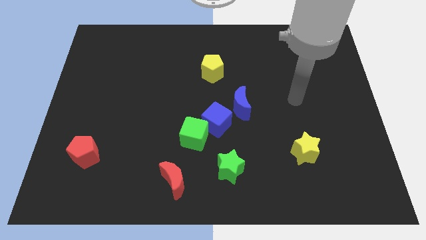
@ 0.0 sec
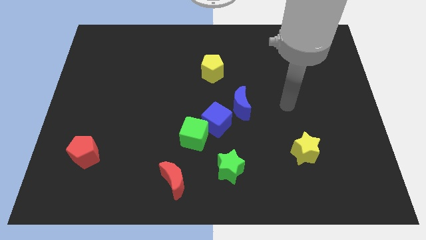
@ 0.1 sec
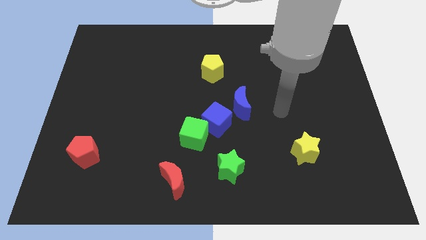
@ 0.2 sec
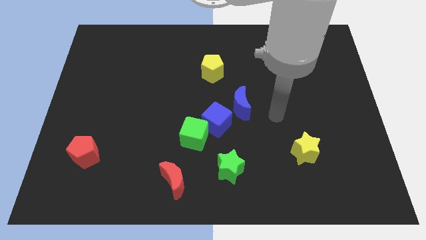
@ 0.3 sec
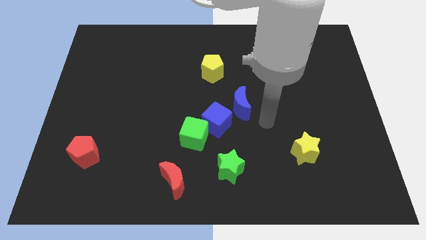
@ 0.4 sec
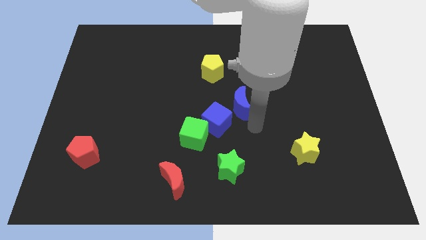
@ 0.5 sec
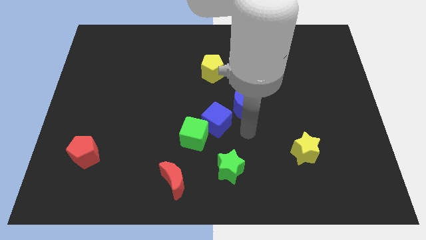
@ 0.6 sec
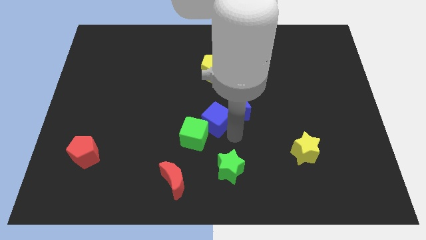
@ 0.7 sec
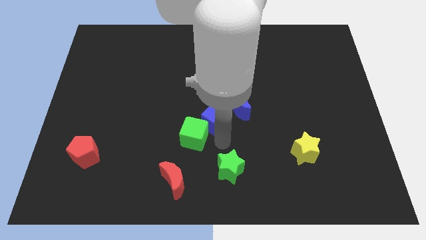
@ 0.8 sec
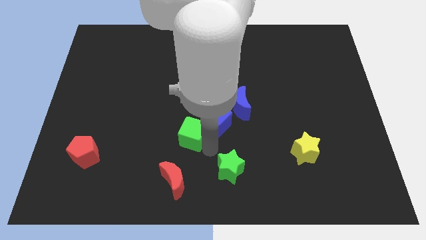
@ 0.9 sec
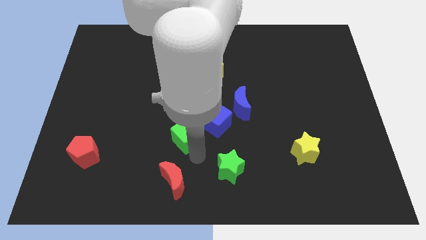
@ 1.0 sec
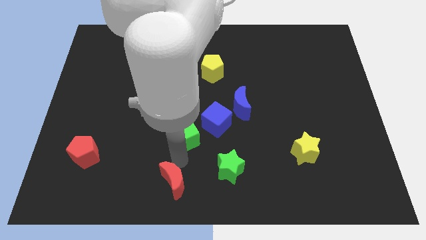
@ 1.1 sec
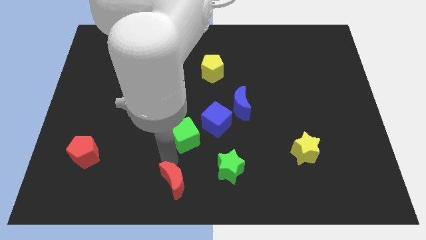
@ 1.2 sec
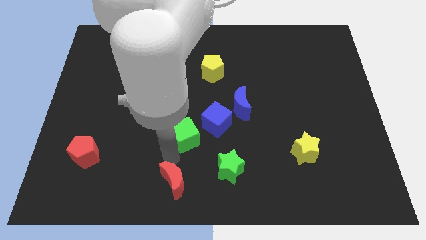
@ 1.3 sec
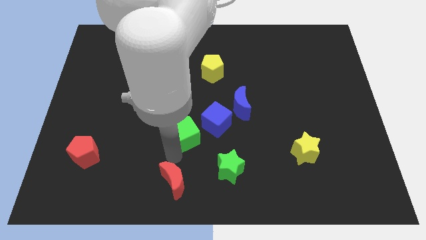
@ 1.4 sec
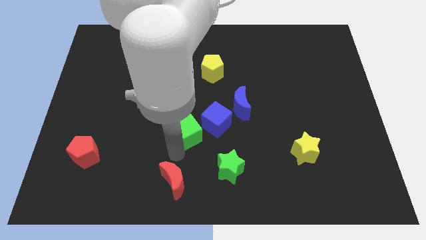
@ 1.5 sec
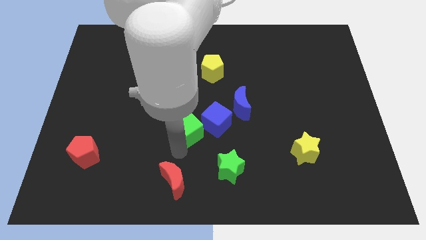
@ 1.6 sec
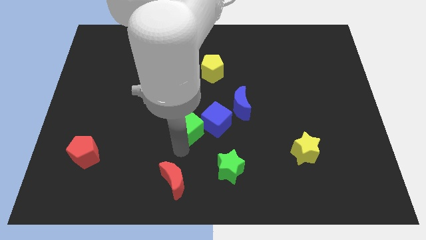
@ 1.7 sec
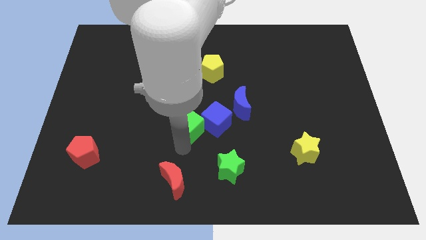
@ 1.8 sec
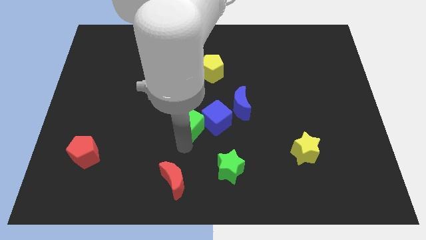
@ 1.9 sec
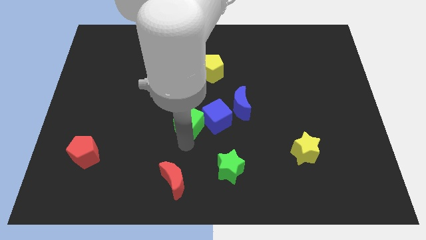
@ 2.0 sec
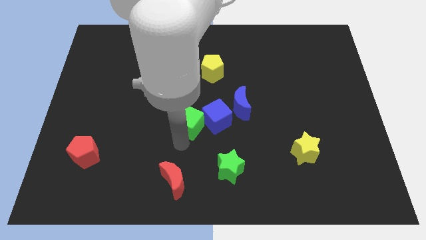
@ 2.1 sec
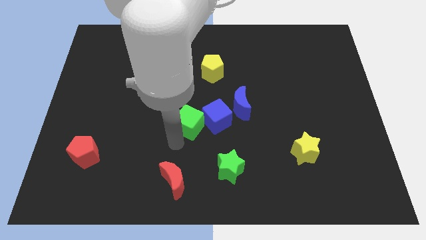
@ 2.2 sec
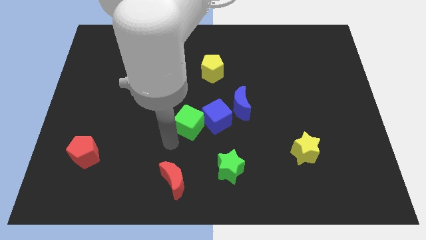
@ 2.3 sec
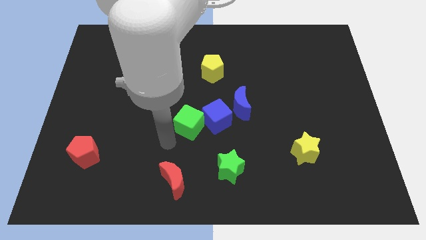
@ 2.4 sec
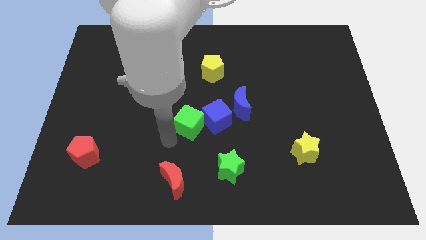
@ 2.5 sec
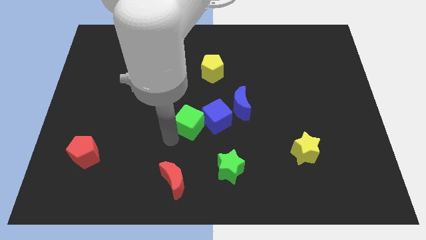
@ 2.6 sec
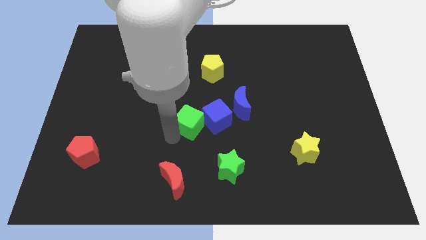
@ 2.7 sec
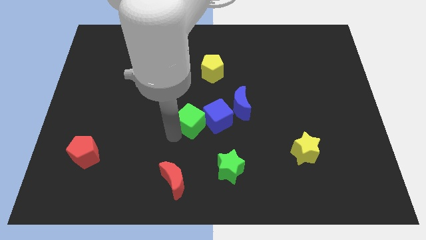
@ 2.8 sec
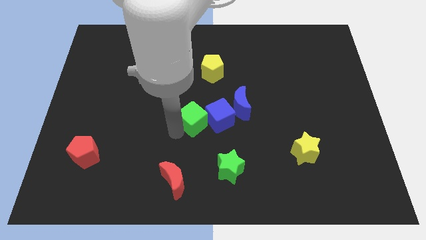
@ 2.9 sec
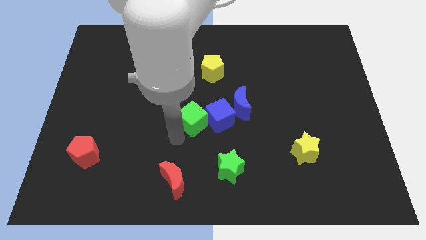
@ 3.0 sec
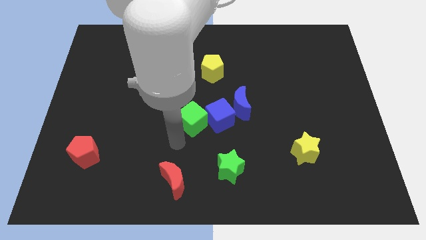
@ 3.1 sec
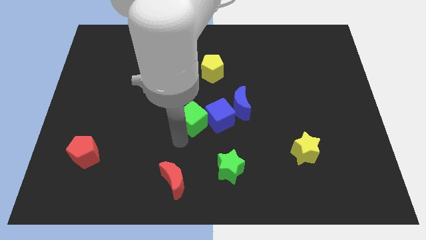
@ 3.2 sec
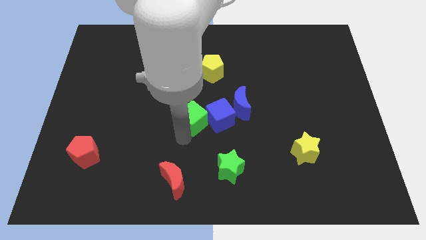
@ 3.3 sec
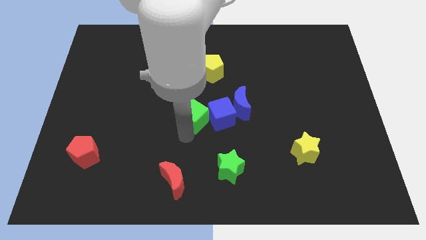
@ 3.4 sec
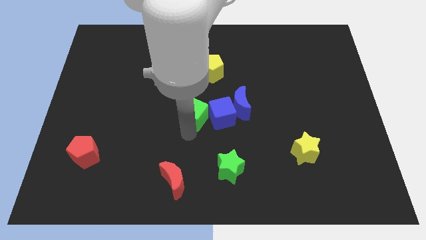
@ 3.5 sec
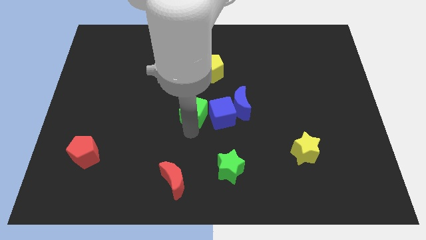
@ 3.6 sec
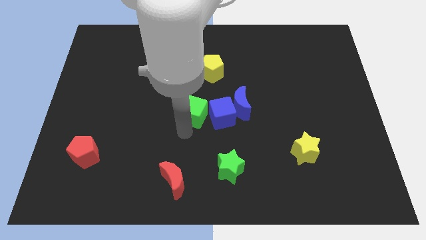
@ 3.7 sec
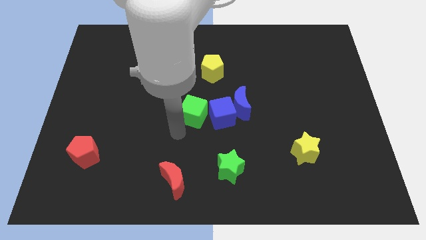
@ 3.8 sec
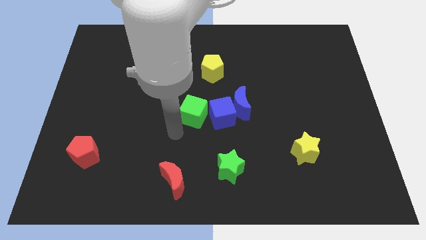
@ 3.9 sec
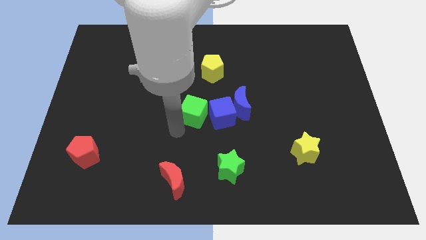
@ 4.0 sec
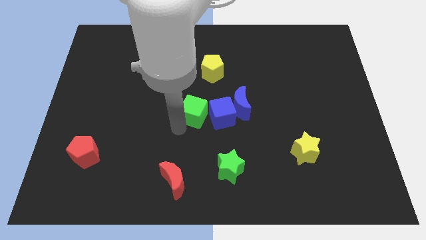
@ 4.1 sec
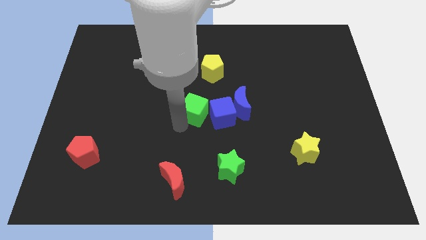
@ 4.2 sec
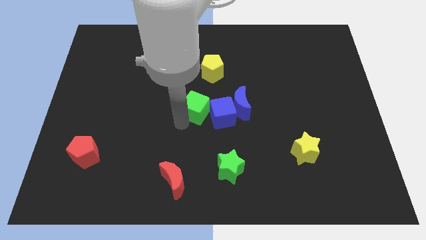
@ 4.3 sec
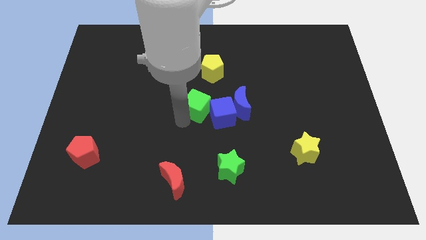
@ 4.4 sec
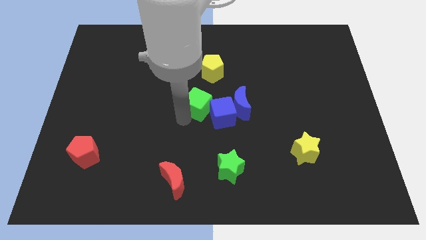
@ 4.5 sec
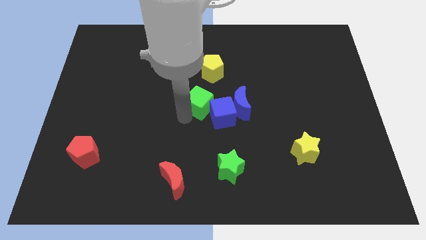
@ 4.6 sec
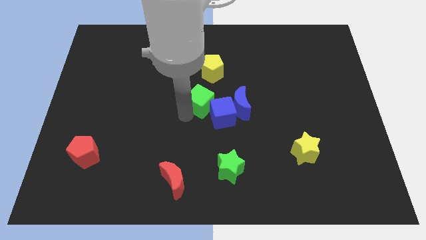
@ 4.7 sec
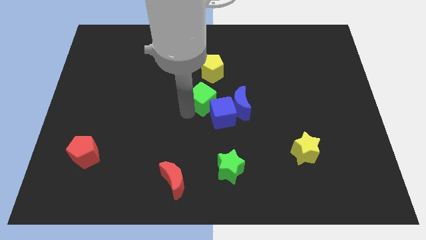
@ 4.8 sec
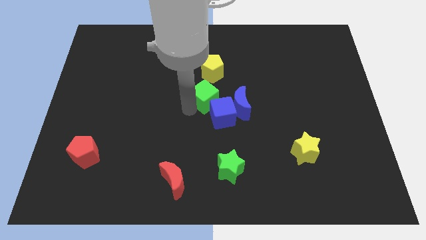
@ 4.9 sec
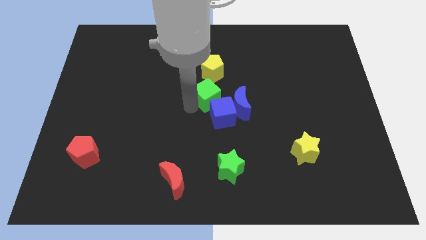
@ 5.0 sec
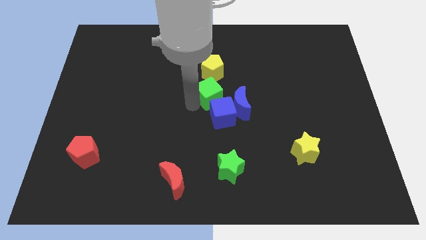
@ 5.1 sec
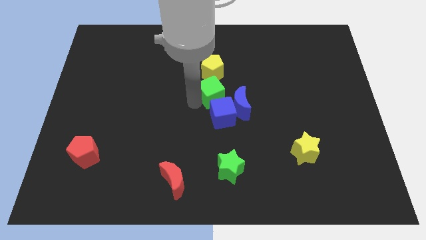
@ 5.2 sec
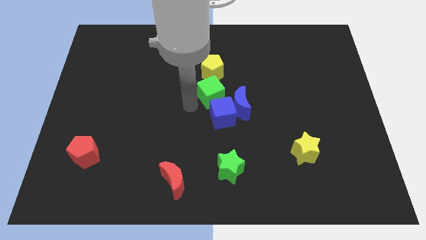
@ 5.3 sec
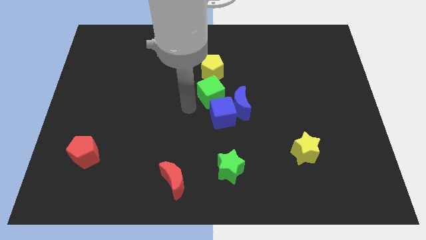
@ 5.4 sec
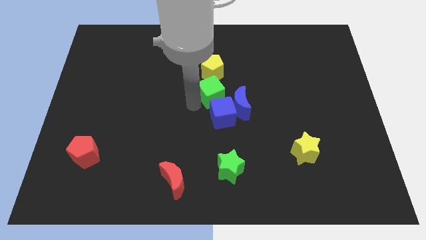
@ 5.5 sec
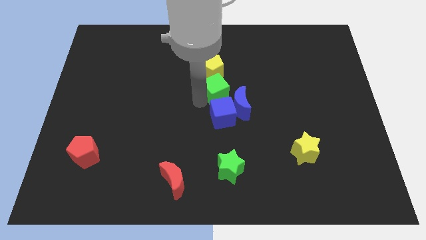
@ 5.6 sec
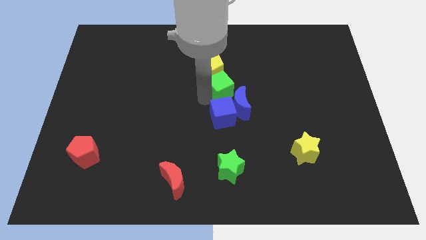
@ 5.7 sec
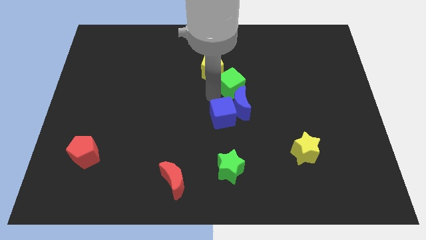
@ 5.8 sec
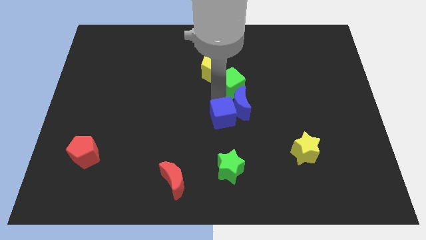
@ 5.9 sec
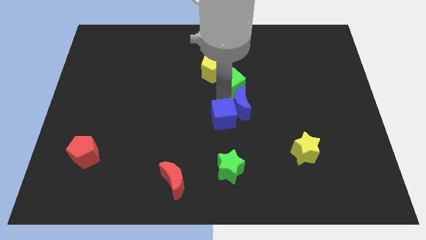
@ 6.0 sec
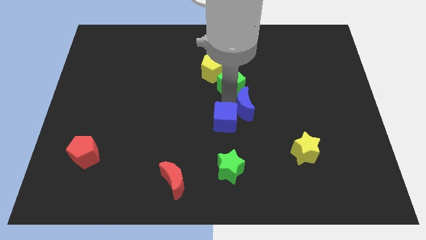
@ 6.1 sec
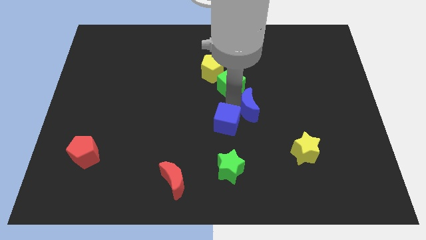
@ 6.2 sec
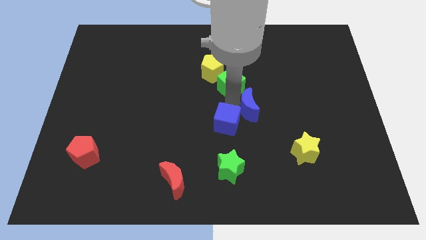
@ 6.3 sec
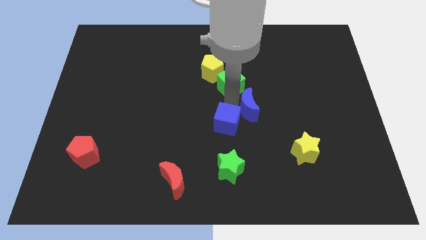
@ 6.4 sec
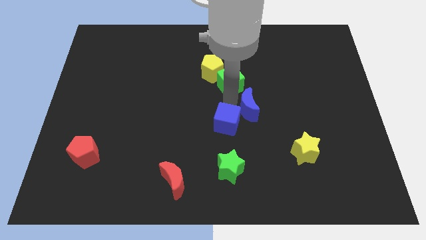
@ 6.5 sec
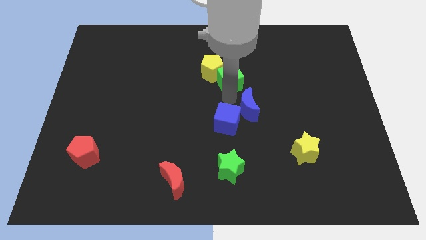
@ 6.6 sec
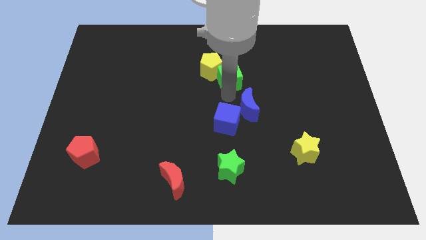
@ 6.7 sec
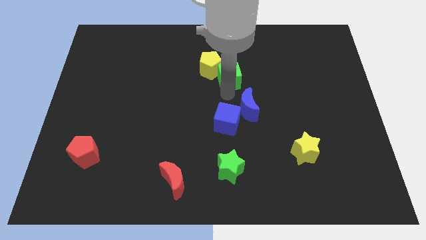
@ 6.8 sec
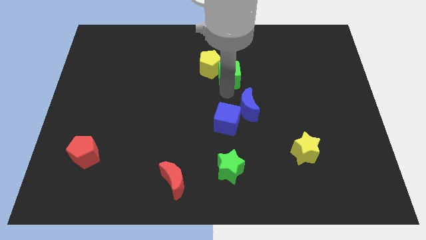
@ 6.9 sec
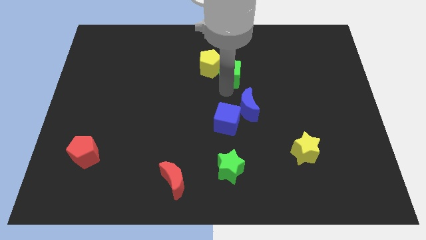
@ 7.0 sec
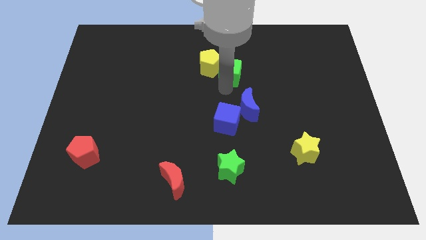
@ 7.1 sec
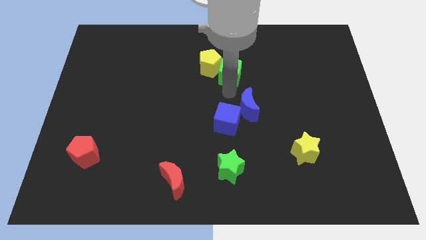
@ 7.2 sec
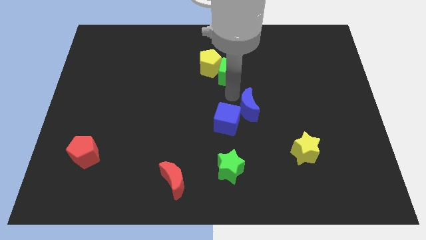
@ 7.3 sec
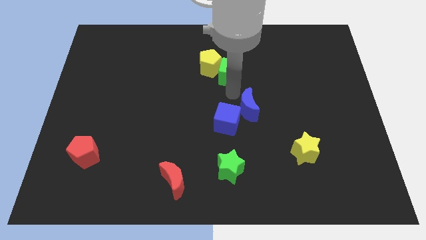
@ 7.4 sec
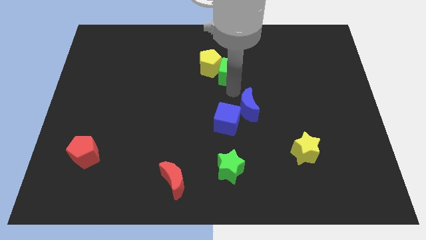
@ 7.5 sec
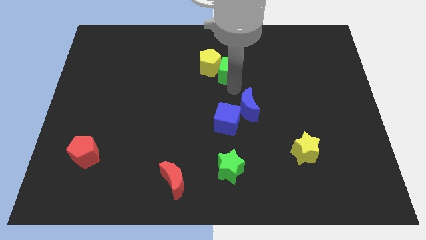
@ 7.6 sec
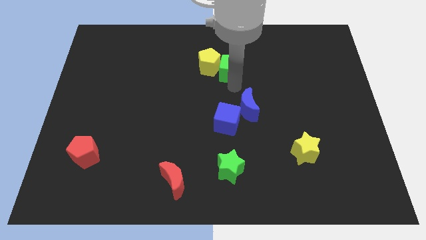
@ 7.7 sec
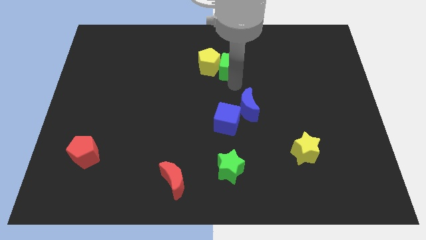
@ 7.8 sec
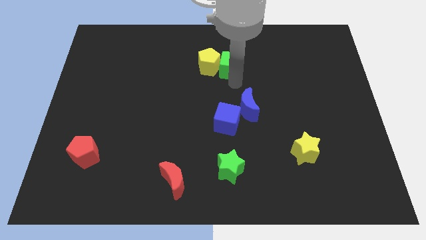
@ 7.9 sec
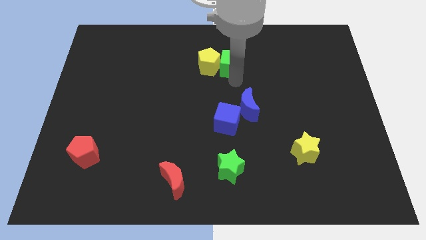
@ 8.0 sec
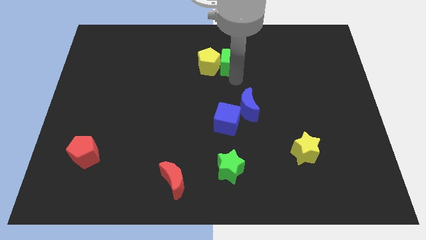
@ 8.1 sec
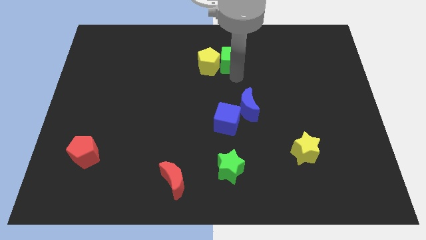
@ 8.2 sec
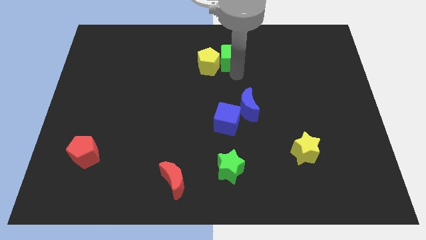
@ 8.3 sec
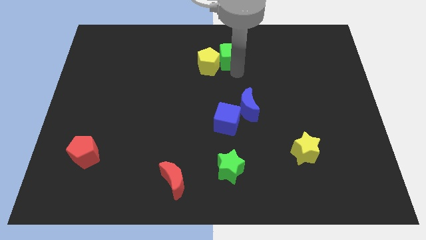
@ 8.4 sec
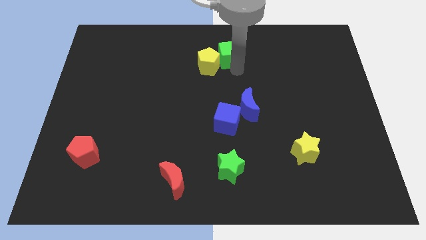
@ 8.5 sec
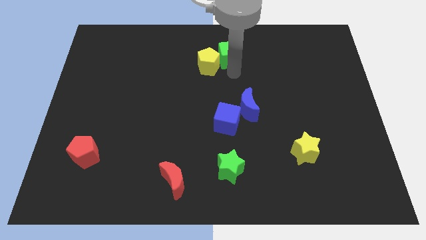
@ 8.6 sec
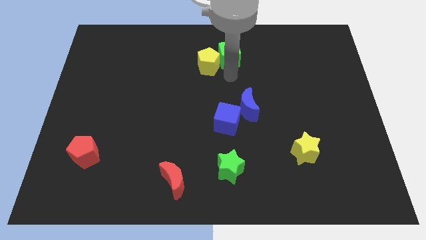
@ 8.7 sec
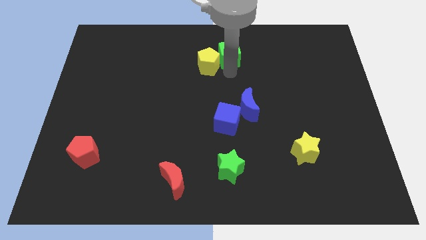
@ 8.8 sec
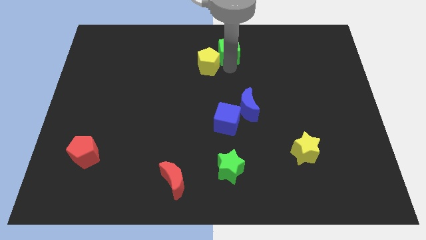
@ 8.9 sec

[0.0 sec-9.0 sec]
put the green cube to the towards your base
